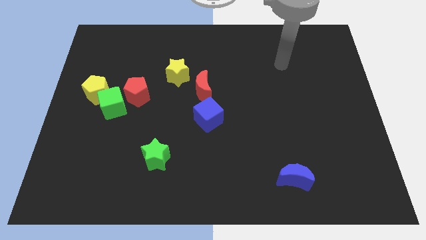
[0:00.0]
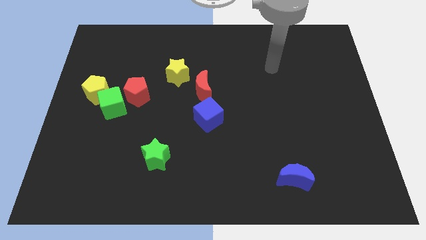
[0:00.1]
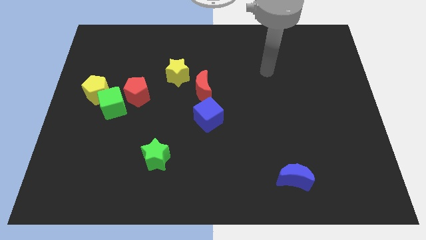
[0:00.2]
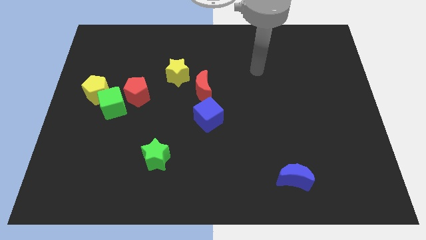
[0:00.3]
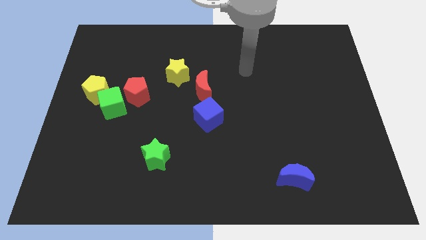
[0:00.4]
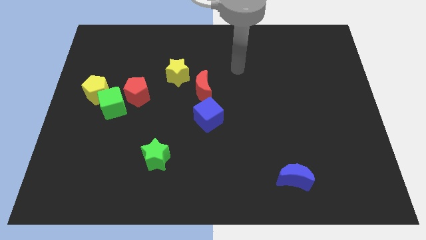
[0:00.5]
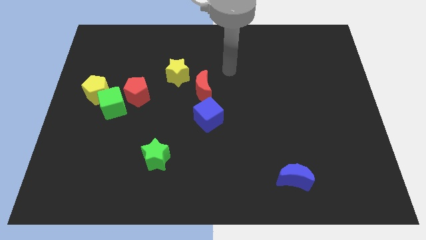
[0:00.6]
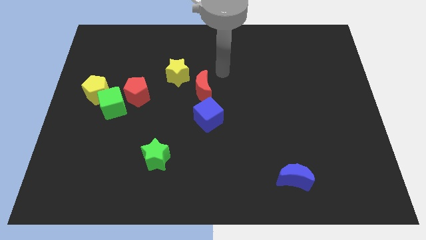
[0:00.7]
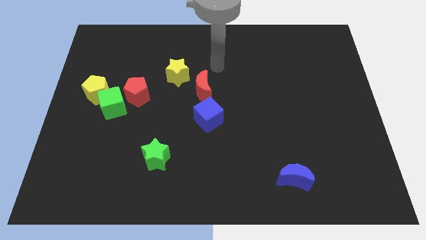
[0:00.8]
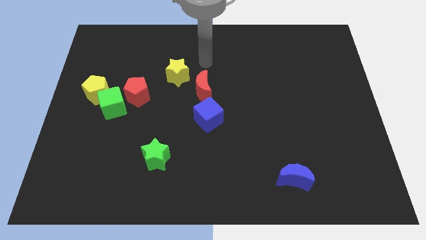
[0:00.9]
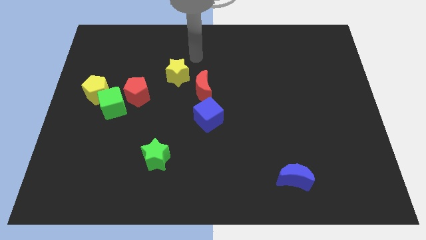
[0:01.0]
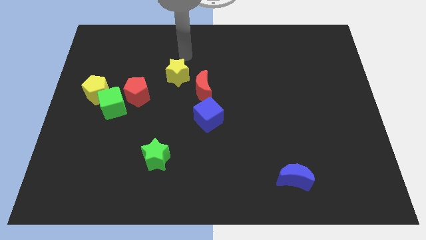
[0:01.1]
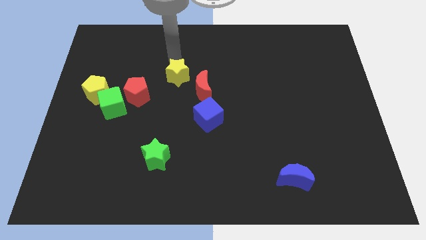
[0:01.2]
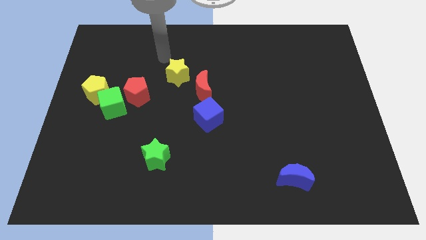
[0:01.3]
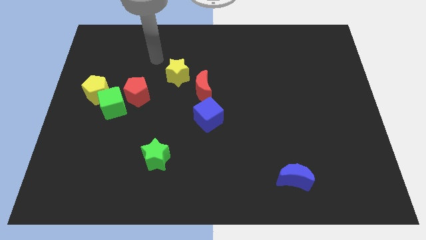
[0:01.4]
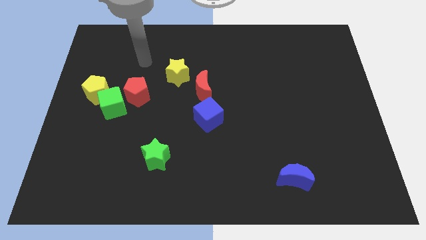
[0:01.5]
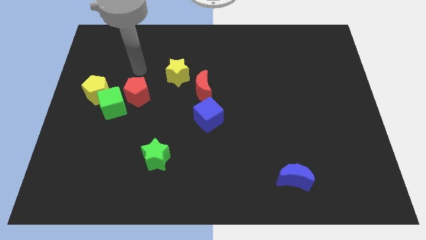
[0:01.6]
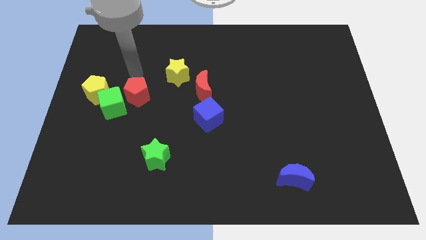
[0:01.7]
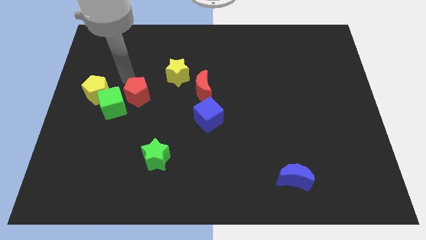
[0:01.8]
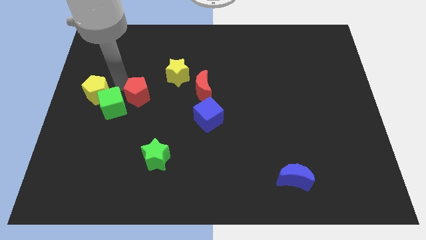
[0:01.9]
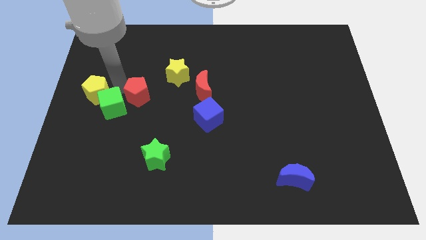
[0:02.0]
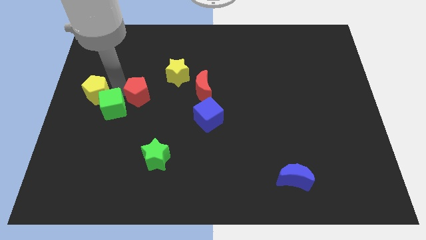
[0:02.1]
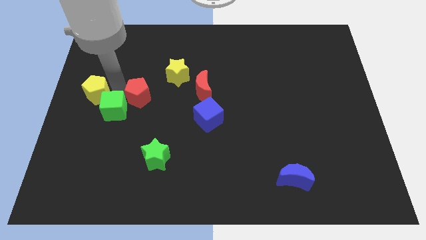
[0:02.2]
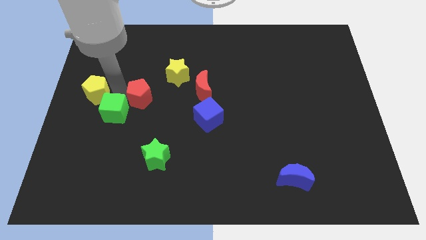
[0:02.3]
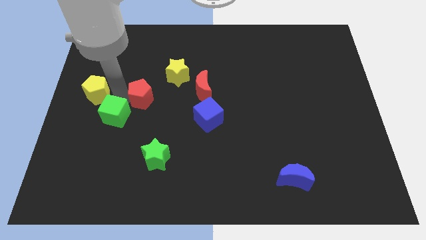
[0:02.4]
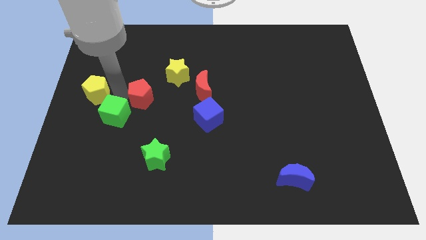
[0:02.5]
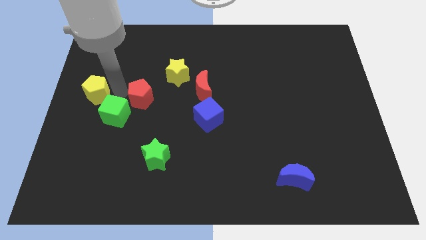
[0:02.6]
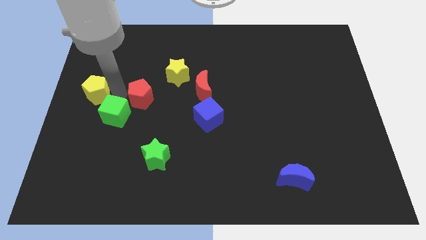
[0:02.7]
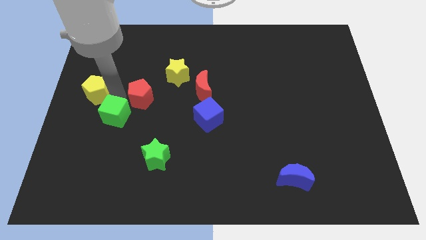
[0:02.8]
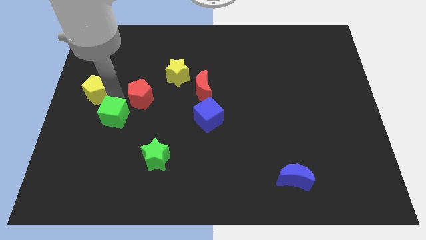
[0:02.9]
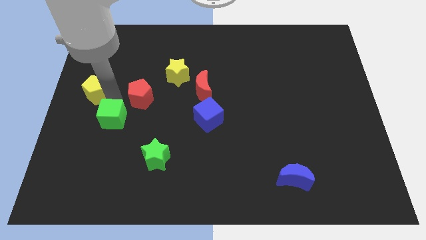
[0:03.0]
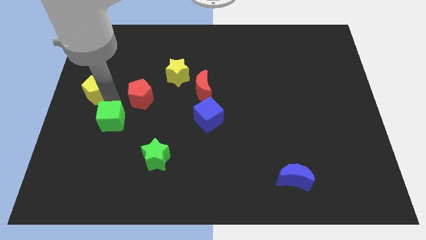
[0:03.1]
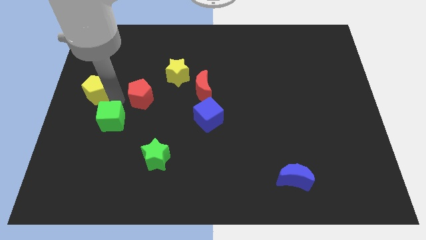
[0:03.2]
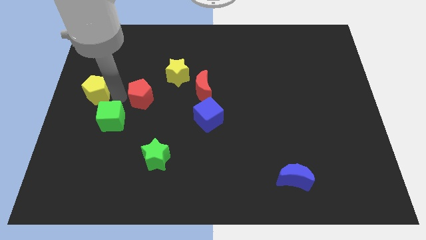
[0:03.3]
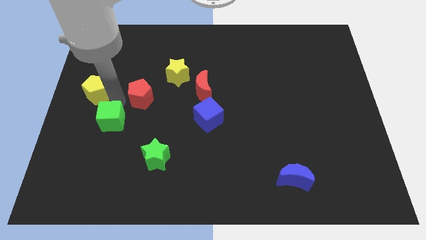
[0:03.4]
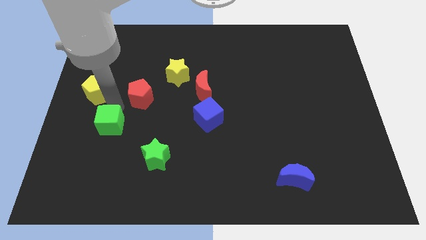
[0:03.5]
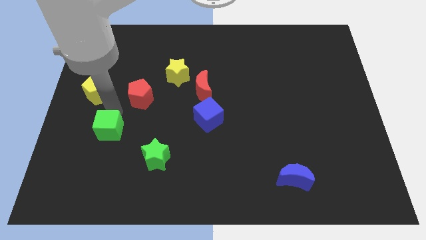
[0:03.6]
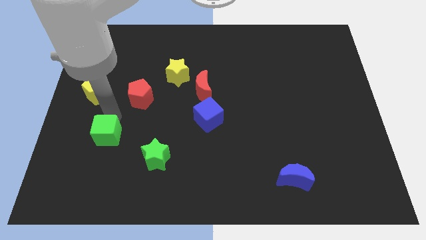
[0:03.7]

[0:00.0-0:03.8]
move the green cube away from the yellow pentagon and red pentagon

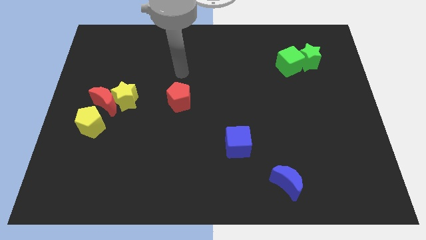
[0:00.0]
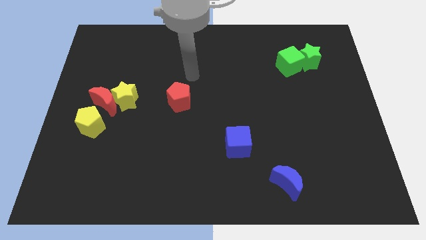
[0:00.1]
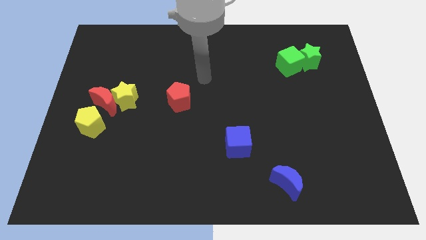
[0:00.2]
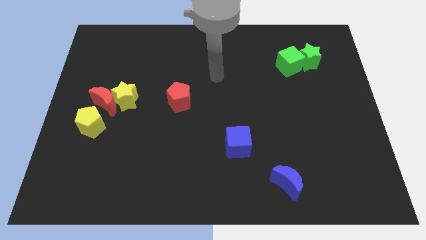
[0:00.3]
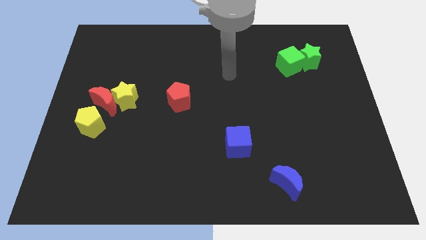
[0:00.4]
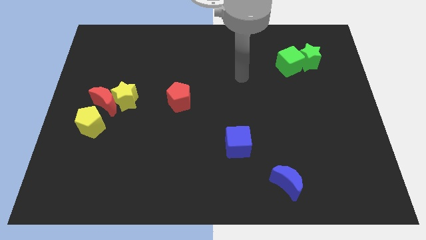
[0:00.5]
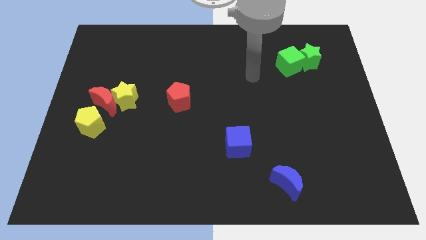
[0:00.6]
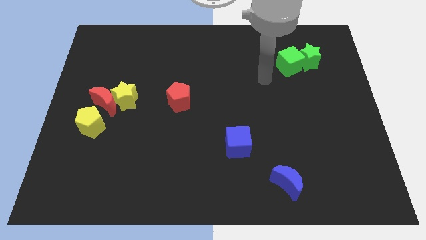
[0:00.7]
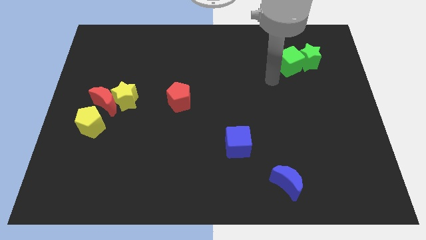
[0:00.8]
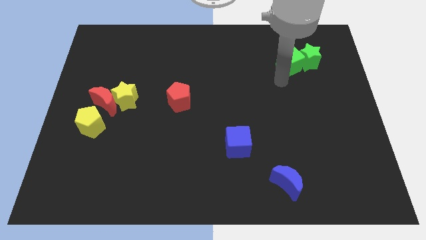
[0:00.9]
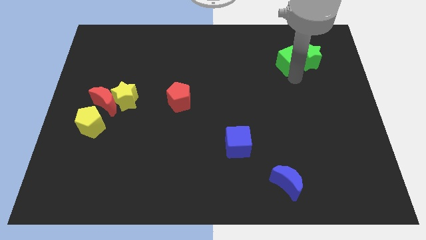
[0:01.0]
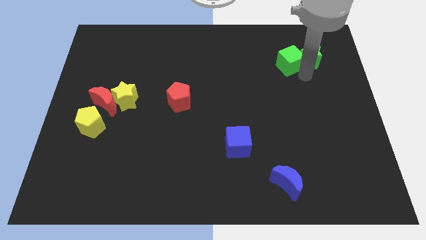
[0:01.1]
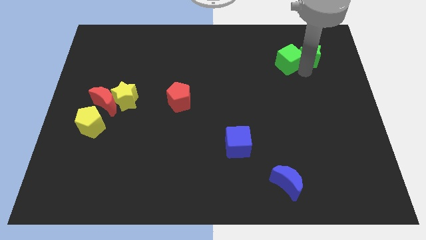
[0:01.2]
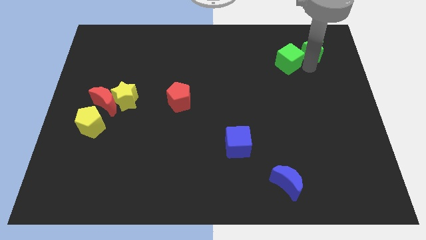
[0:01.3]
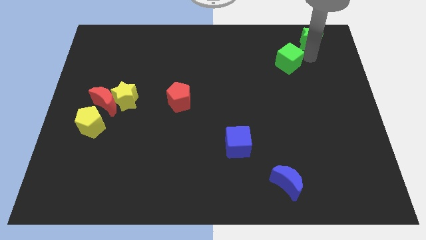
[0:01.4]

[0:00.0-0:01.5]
move the green cube away from the green star

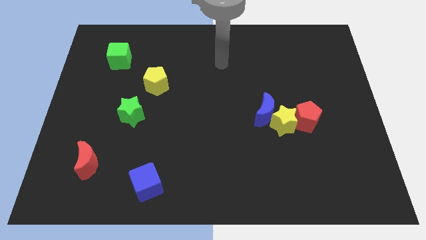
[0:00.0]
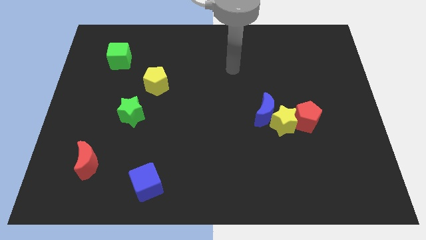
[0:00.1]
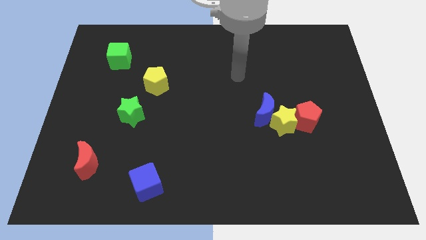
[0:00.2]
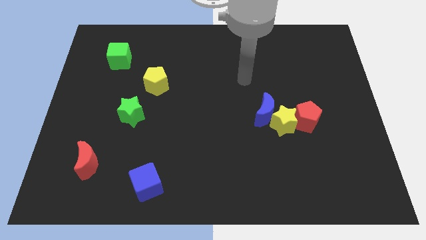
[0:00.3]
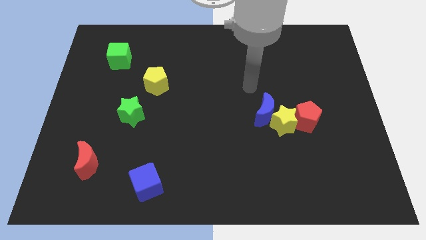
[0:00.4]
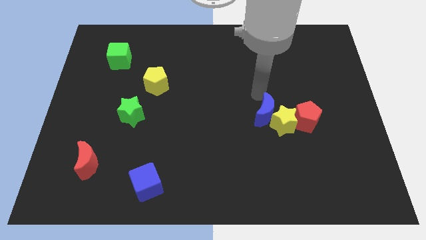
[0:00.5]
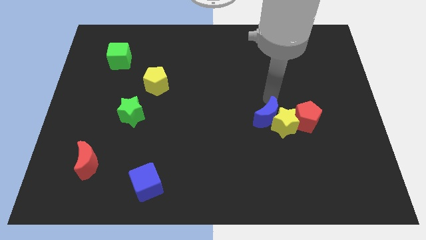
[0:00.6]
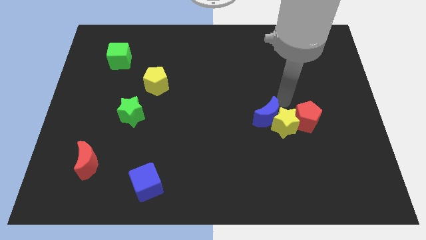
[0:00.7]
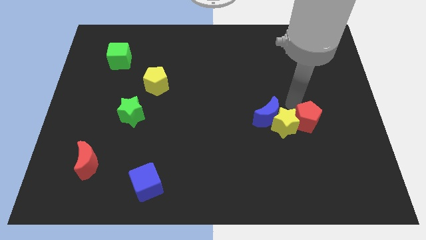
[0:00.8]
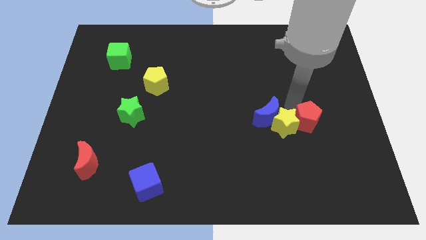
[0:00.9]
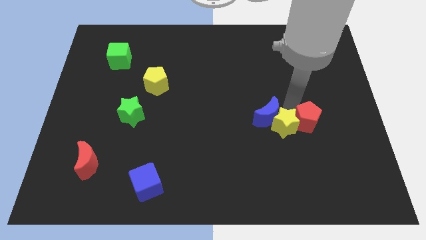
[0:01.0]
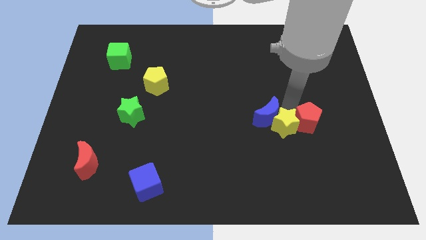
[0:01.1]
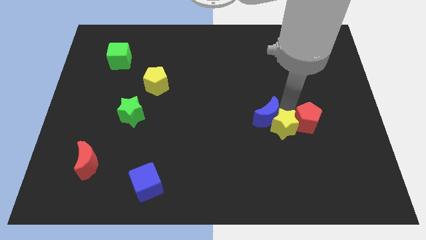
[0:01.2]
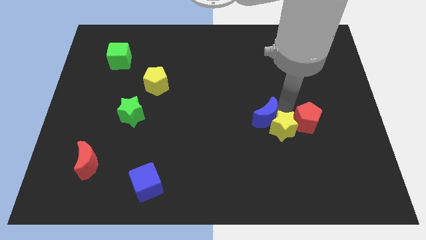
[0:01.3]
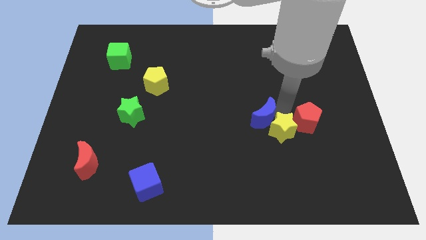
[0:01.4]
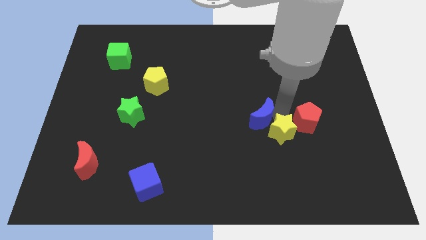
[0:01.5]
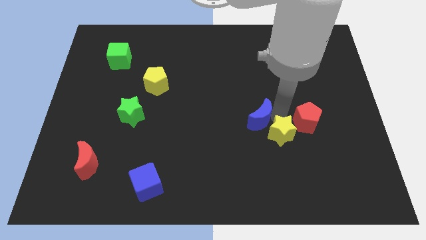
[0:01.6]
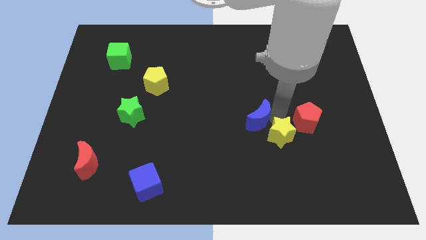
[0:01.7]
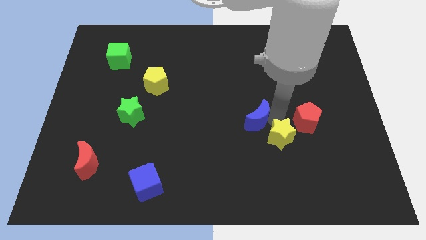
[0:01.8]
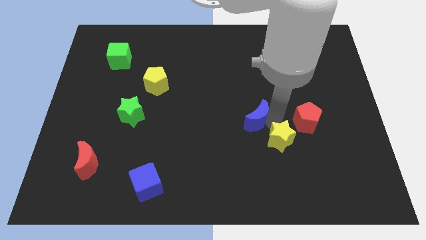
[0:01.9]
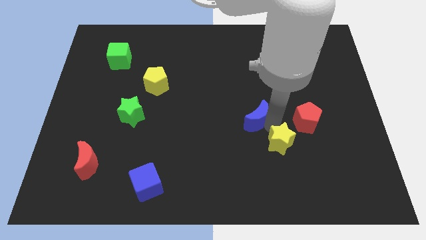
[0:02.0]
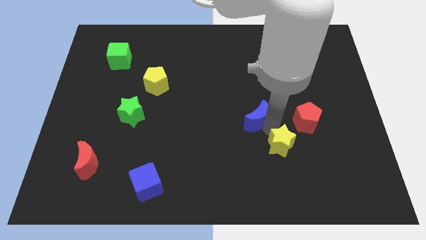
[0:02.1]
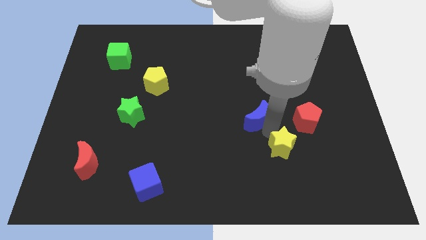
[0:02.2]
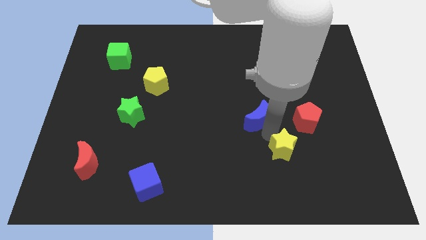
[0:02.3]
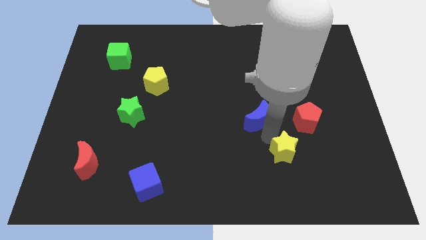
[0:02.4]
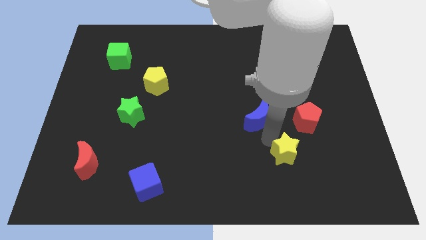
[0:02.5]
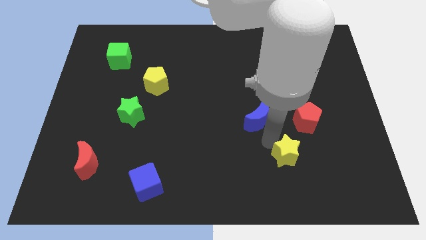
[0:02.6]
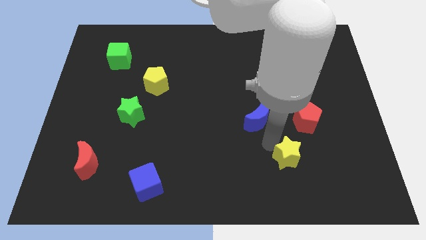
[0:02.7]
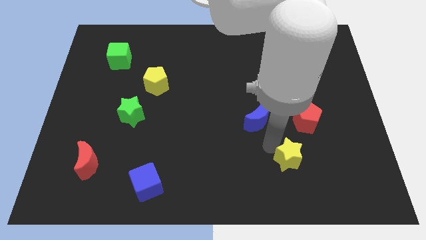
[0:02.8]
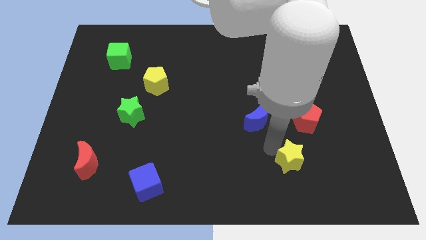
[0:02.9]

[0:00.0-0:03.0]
move the yellow star away from the blue moon and red pentagon

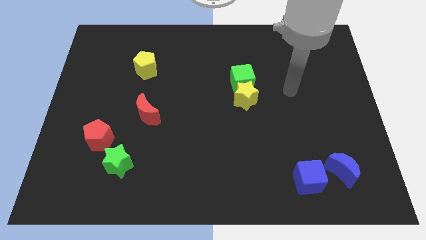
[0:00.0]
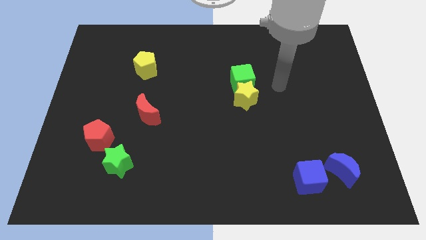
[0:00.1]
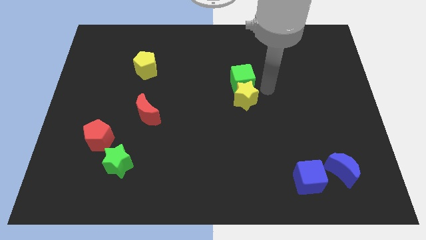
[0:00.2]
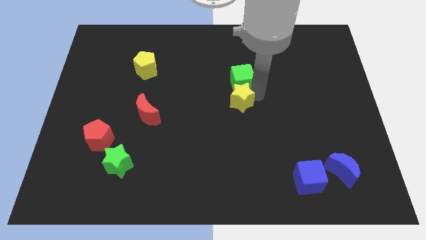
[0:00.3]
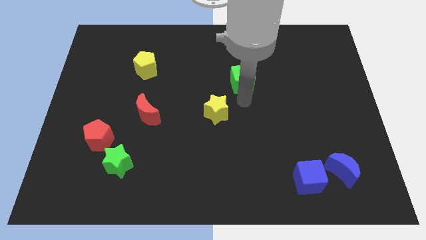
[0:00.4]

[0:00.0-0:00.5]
move the green cube away from the yellow star

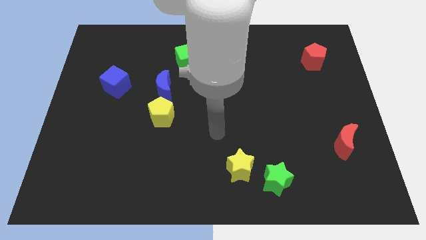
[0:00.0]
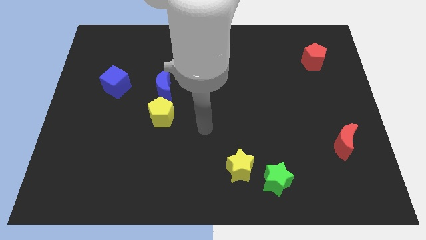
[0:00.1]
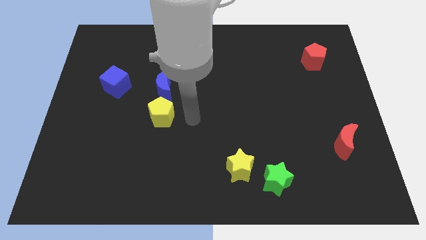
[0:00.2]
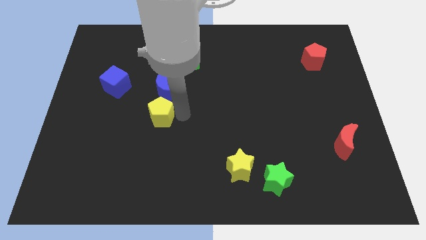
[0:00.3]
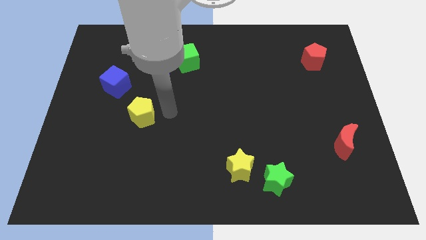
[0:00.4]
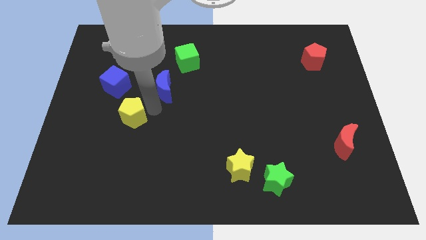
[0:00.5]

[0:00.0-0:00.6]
separate the blue moon from the yellow pentagon
